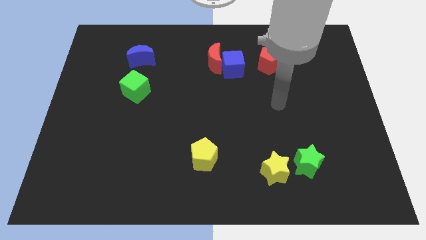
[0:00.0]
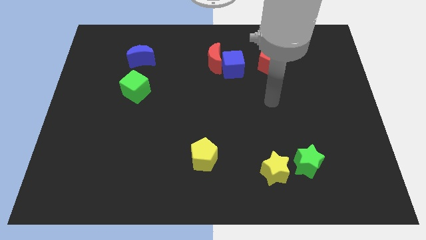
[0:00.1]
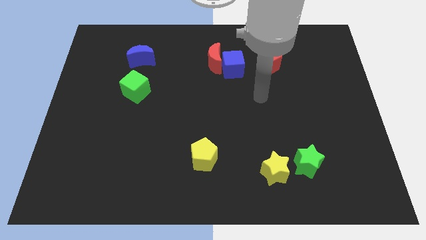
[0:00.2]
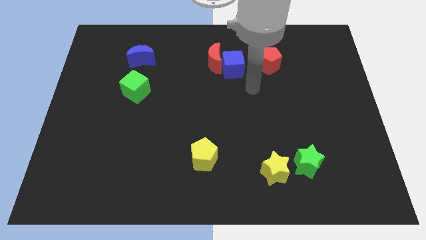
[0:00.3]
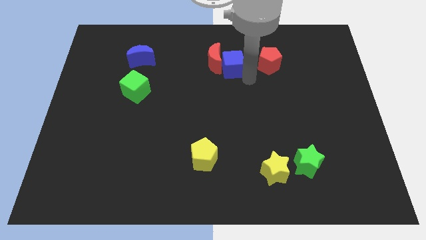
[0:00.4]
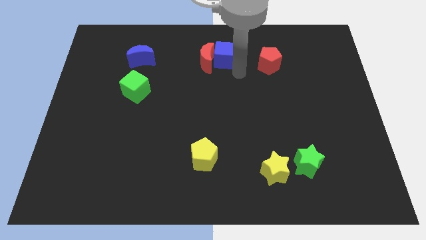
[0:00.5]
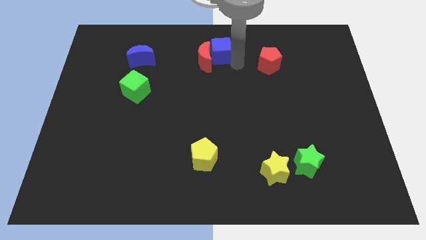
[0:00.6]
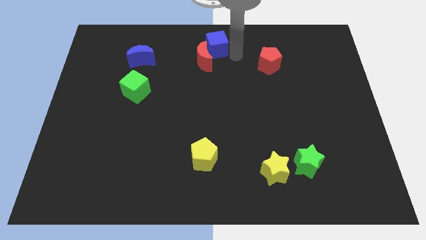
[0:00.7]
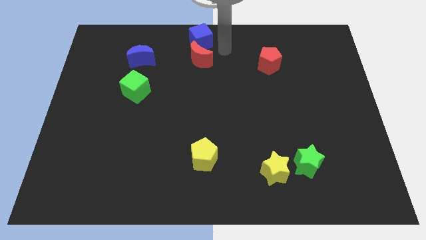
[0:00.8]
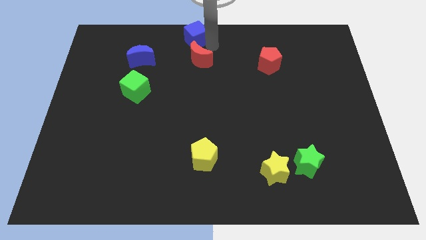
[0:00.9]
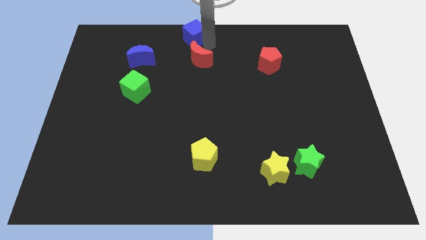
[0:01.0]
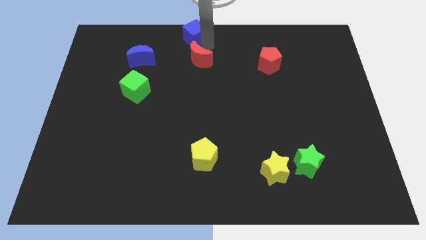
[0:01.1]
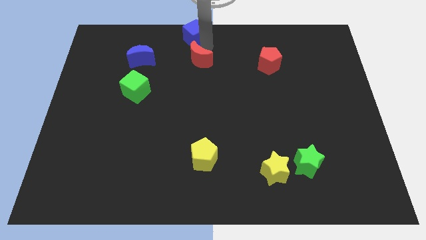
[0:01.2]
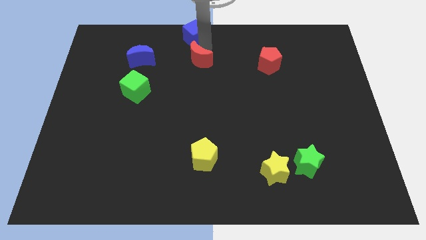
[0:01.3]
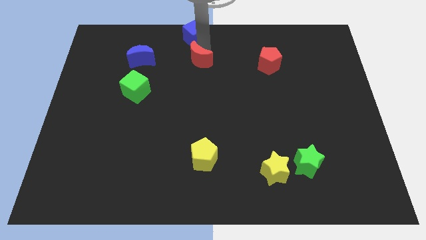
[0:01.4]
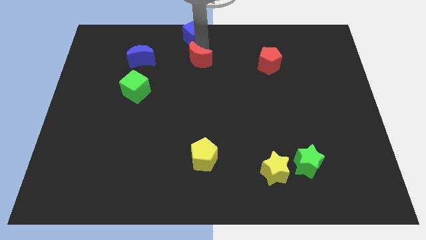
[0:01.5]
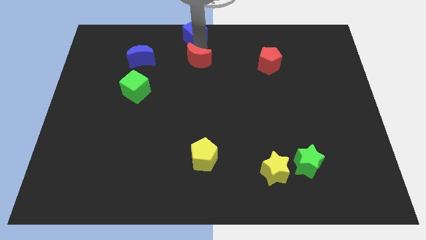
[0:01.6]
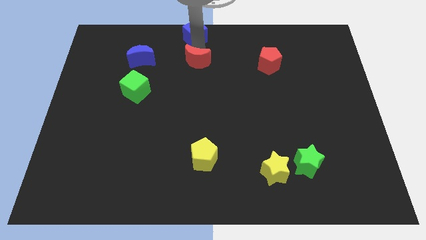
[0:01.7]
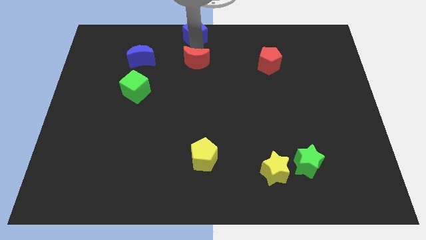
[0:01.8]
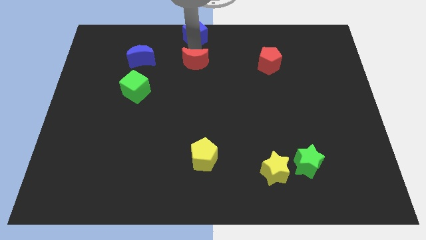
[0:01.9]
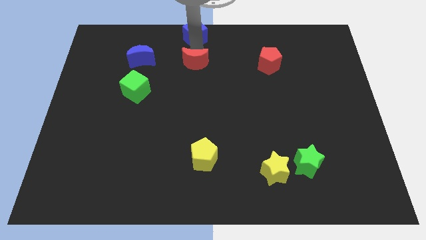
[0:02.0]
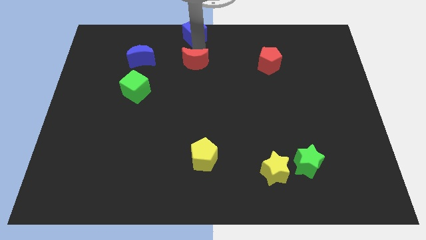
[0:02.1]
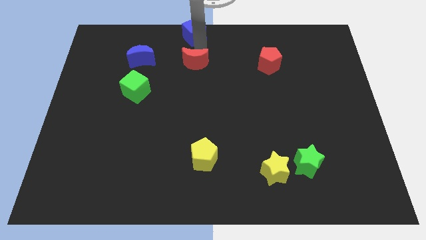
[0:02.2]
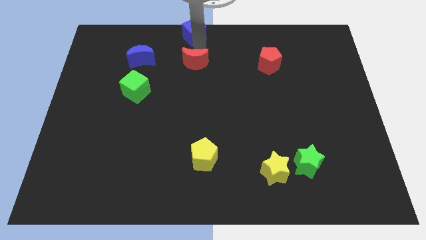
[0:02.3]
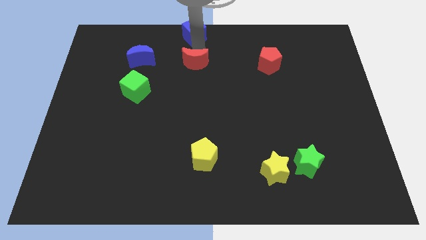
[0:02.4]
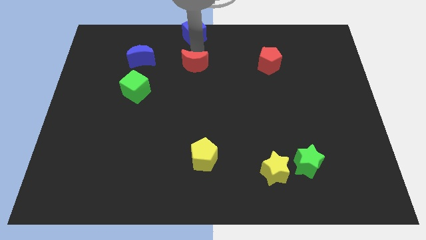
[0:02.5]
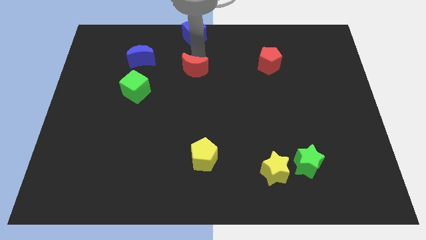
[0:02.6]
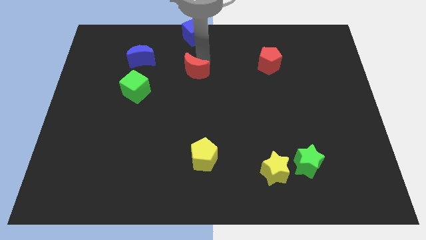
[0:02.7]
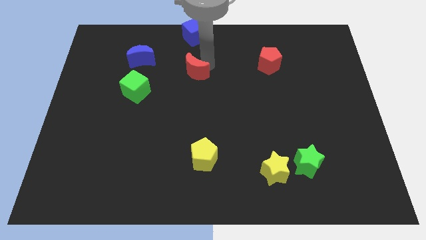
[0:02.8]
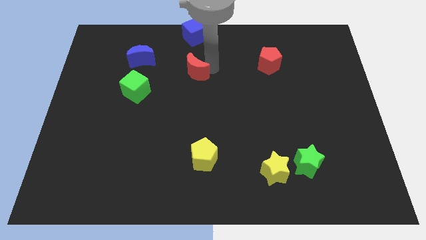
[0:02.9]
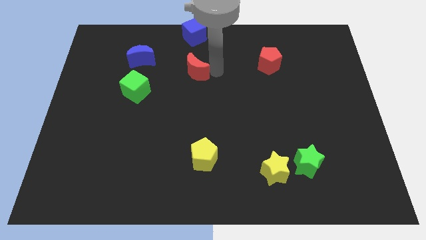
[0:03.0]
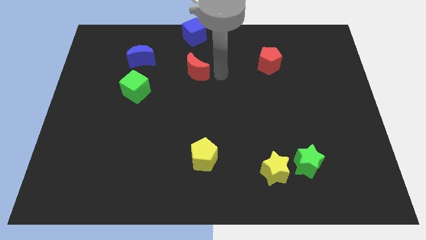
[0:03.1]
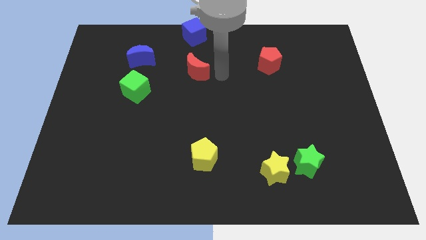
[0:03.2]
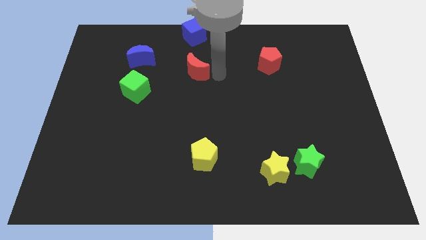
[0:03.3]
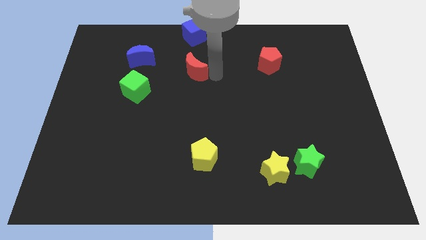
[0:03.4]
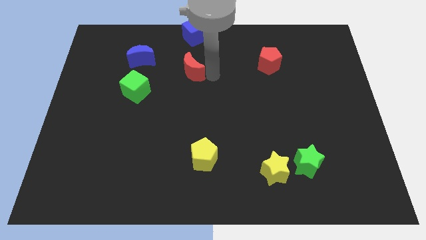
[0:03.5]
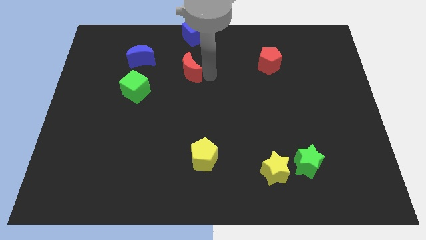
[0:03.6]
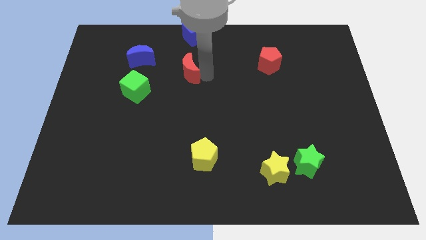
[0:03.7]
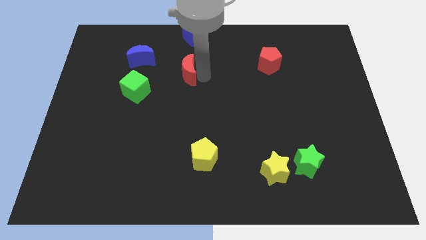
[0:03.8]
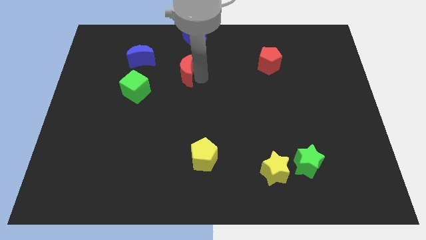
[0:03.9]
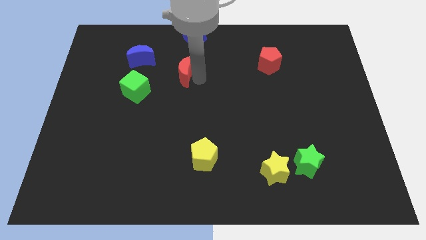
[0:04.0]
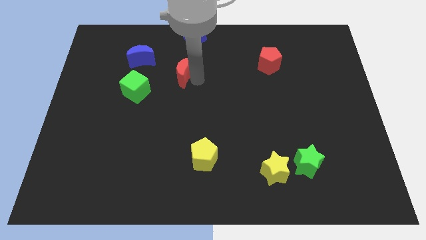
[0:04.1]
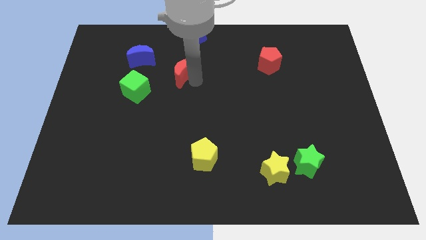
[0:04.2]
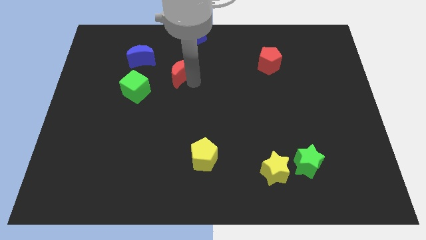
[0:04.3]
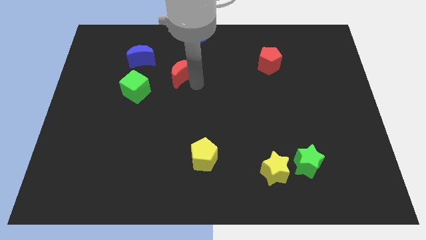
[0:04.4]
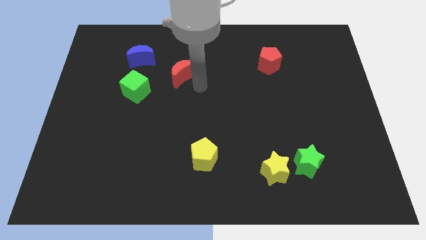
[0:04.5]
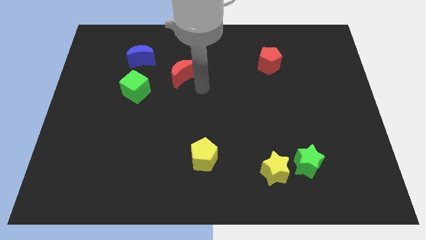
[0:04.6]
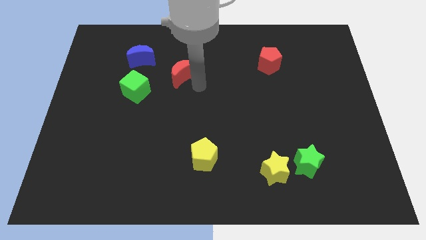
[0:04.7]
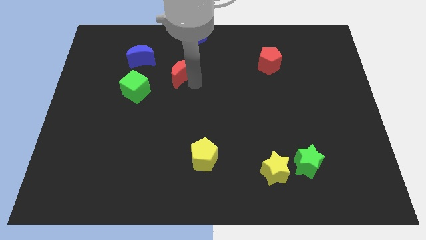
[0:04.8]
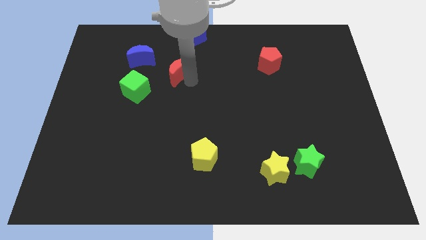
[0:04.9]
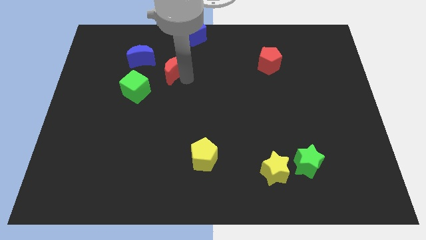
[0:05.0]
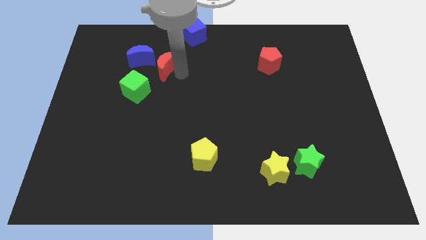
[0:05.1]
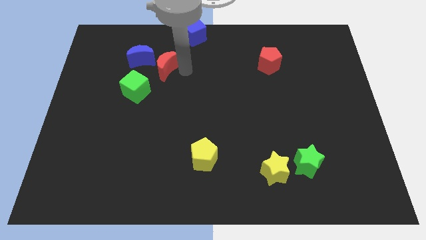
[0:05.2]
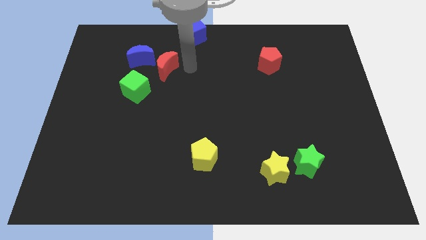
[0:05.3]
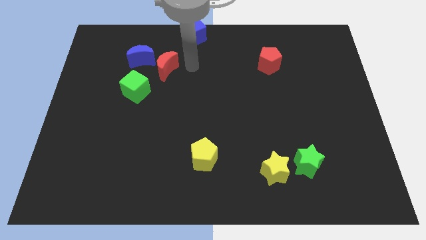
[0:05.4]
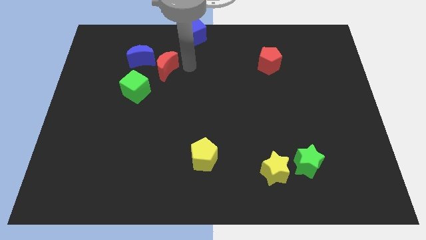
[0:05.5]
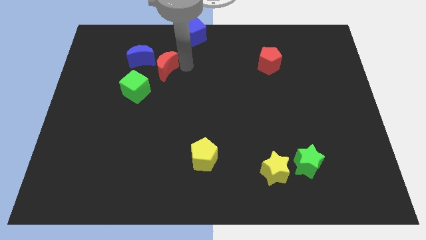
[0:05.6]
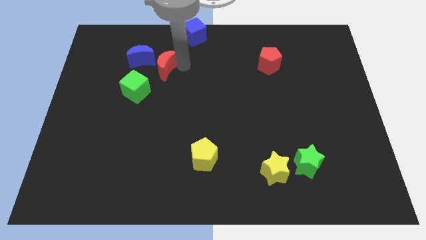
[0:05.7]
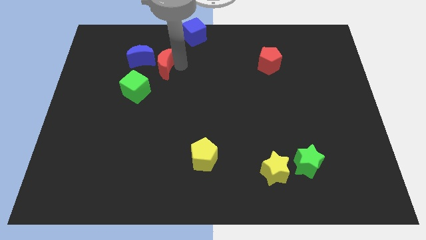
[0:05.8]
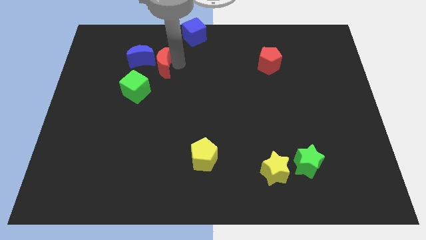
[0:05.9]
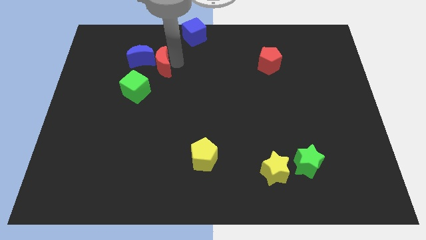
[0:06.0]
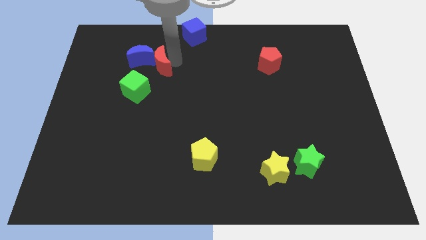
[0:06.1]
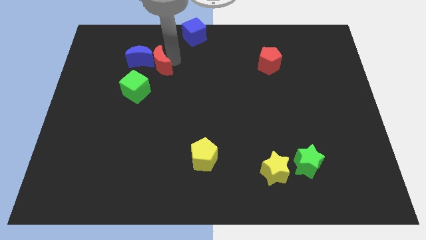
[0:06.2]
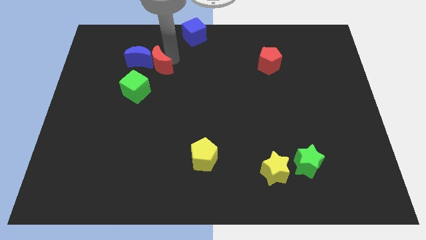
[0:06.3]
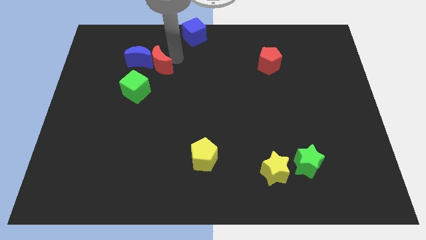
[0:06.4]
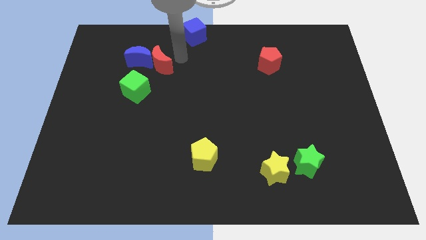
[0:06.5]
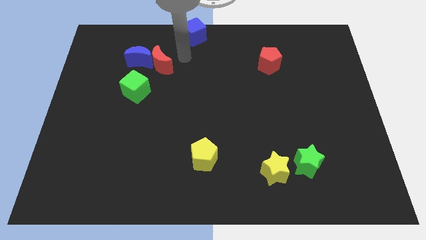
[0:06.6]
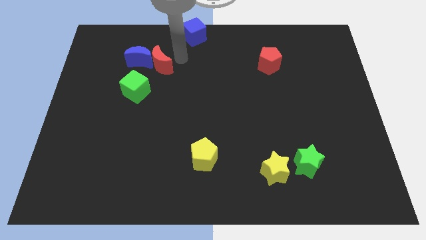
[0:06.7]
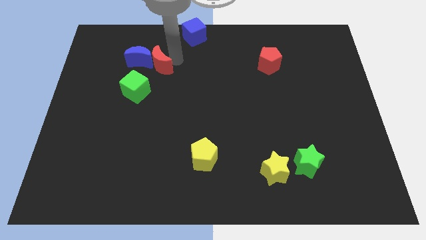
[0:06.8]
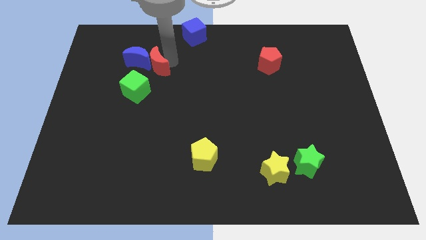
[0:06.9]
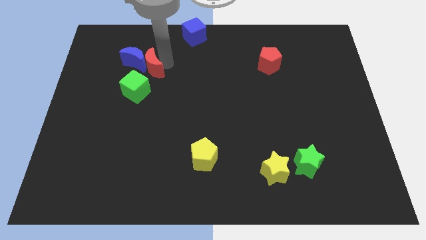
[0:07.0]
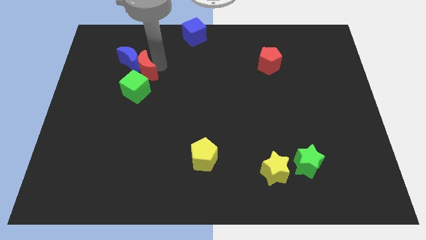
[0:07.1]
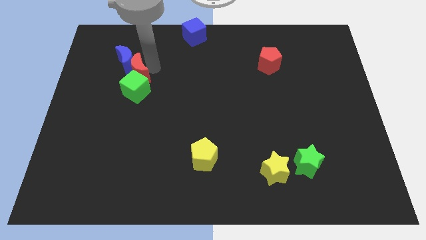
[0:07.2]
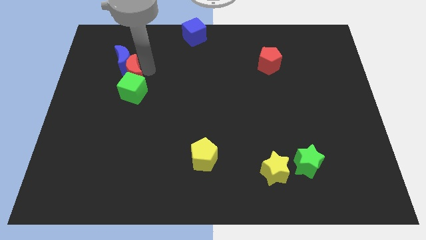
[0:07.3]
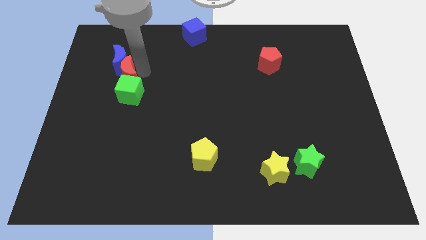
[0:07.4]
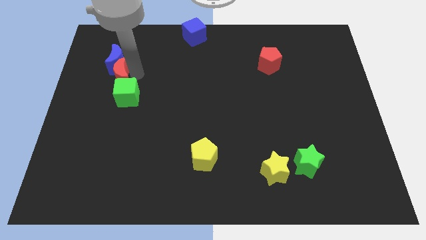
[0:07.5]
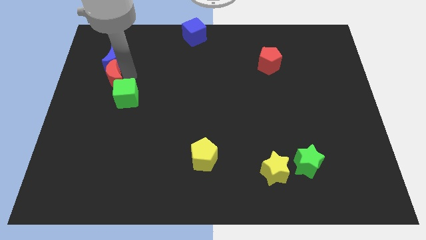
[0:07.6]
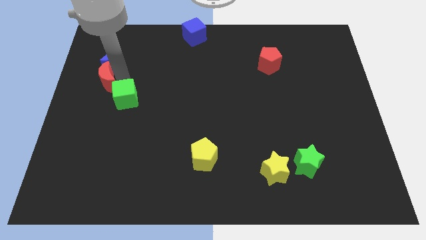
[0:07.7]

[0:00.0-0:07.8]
put the red moon to the left side of the board
